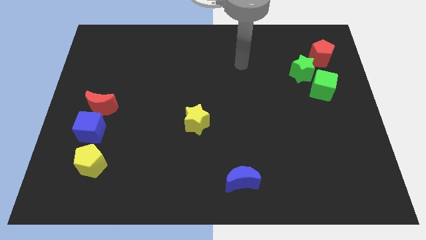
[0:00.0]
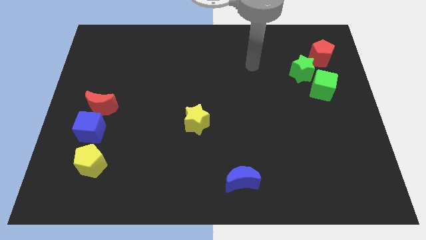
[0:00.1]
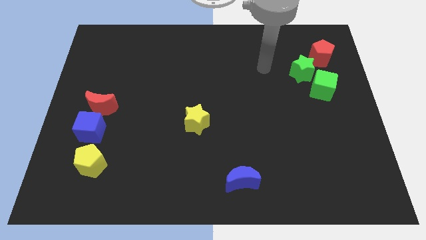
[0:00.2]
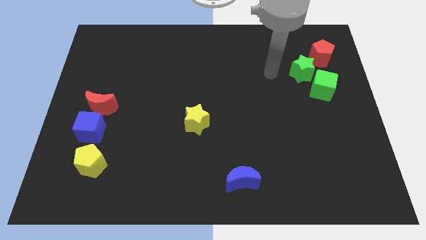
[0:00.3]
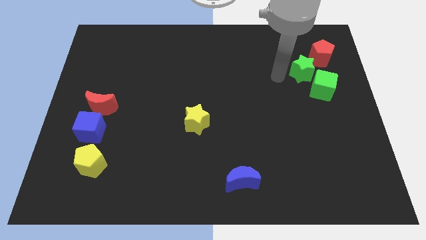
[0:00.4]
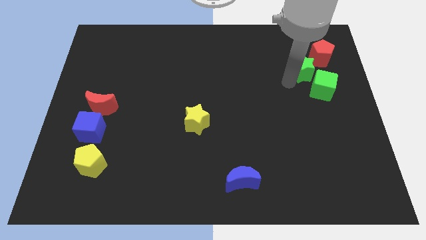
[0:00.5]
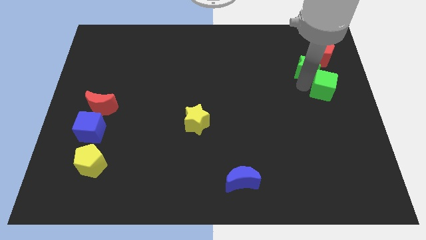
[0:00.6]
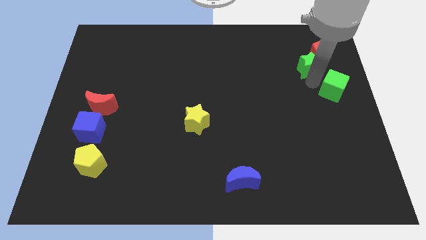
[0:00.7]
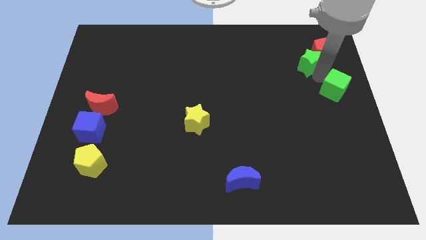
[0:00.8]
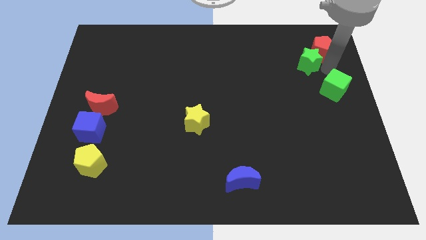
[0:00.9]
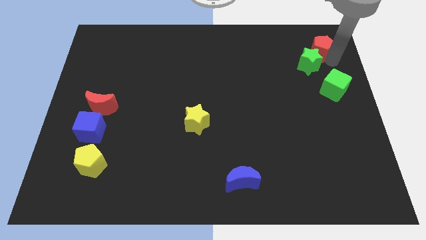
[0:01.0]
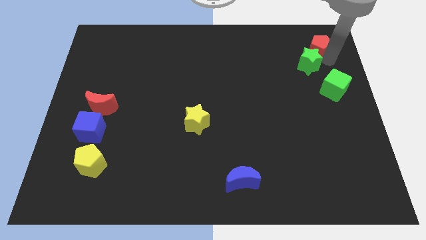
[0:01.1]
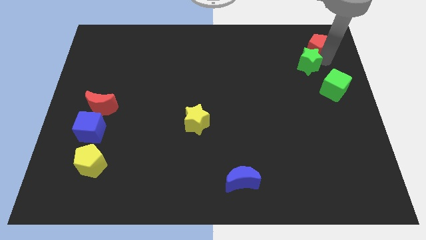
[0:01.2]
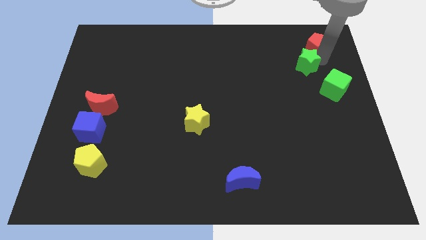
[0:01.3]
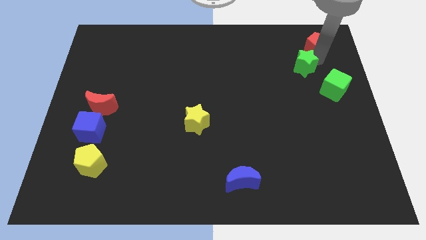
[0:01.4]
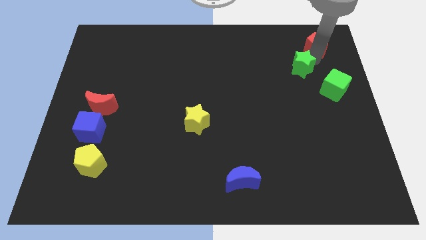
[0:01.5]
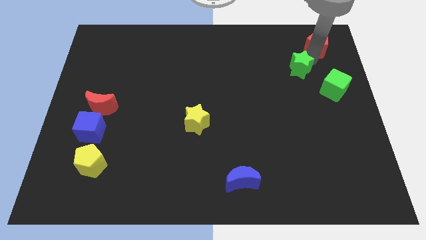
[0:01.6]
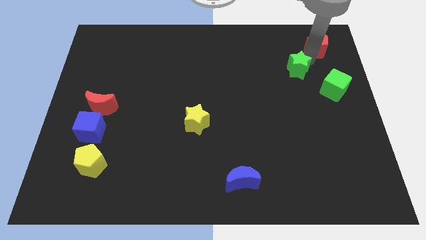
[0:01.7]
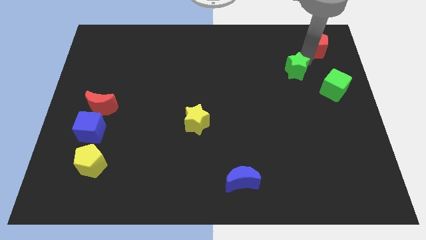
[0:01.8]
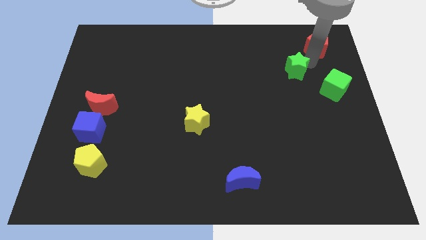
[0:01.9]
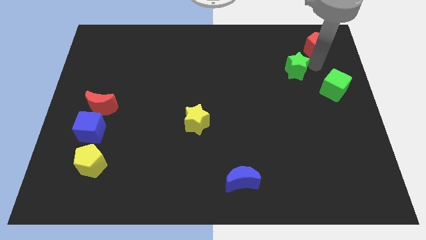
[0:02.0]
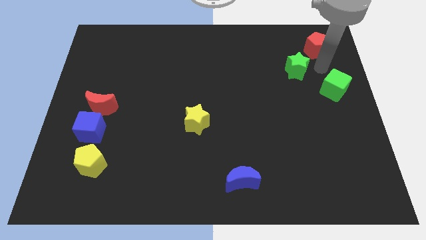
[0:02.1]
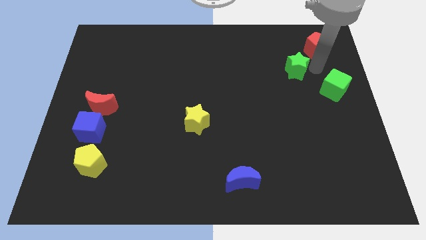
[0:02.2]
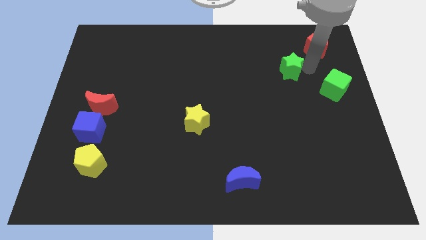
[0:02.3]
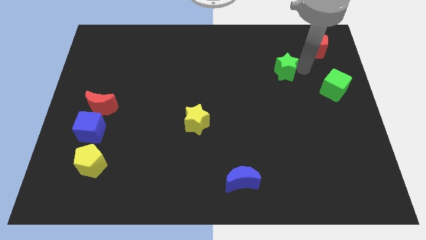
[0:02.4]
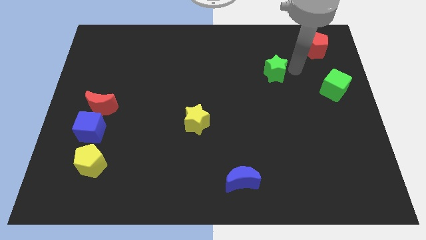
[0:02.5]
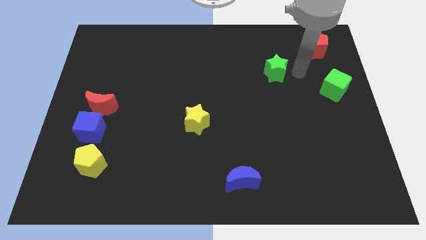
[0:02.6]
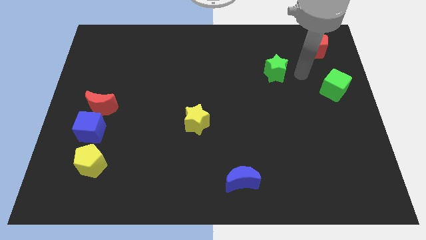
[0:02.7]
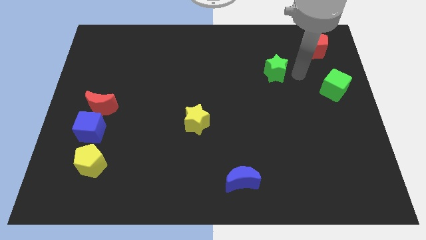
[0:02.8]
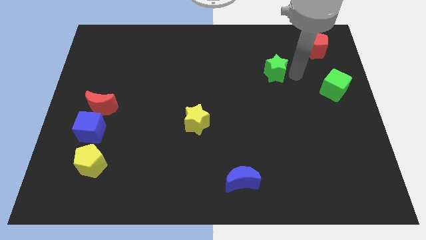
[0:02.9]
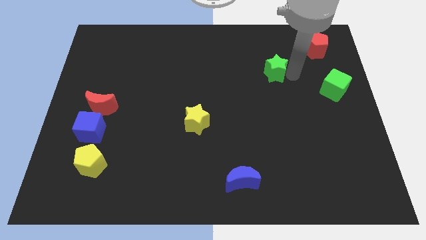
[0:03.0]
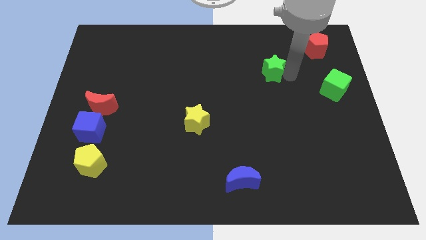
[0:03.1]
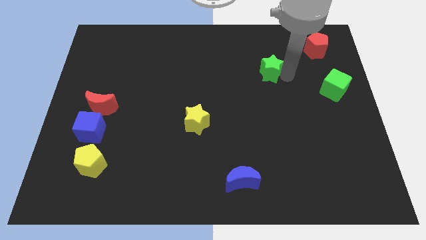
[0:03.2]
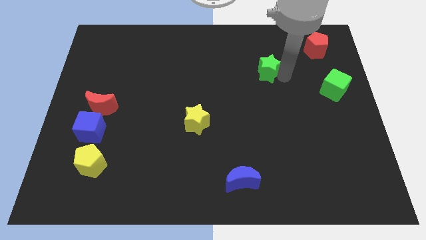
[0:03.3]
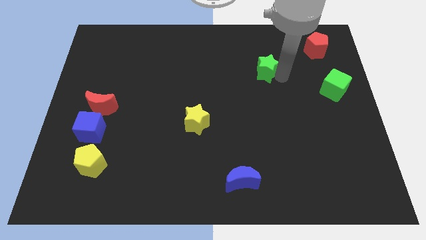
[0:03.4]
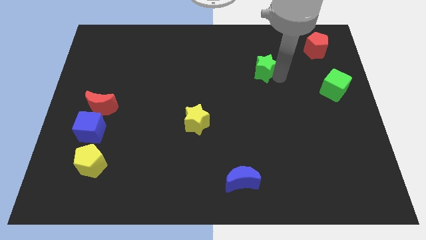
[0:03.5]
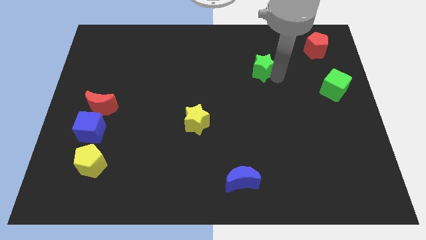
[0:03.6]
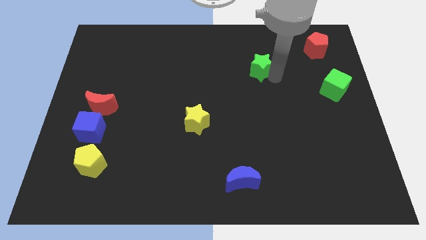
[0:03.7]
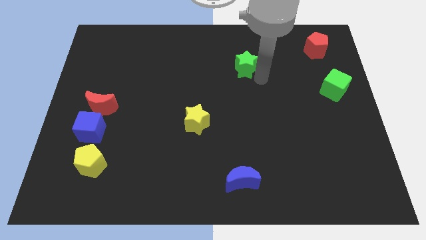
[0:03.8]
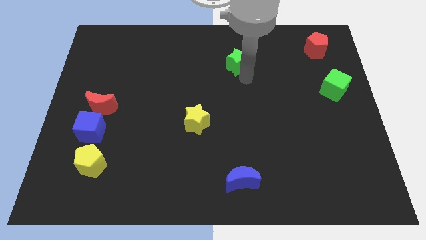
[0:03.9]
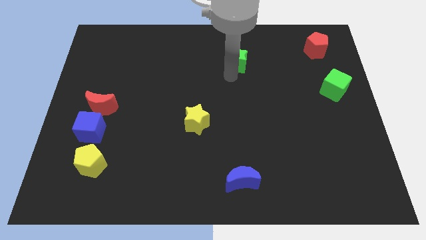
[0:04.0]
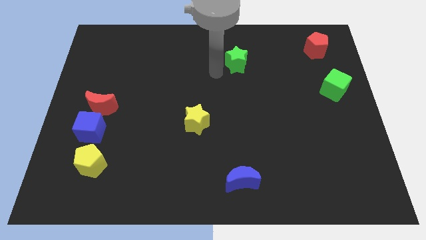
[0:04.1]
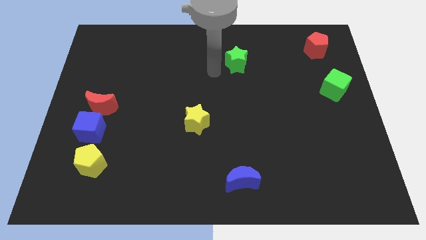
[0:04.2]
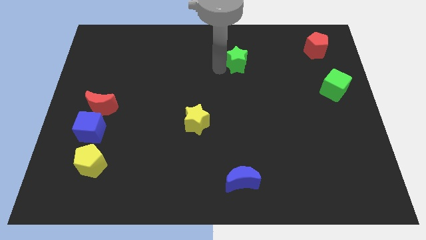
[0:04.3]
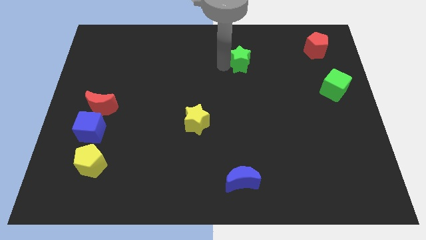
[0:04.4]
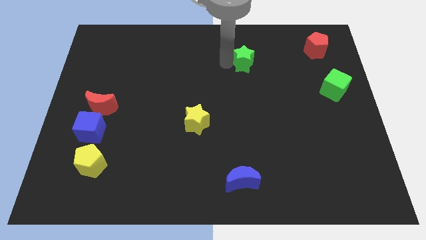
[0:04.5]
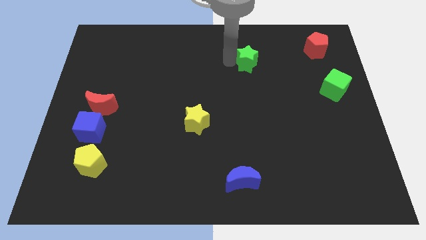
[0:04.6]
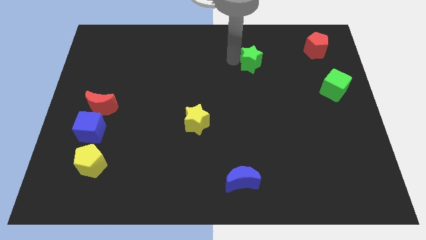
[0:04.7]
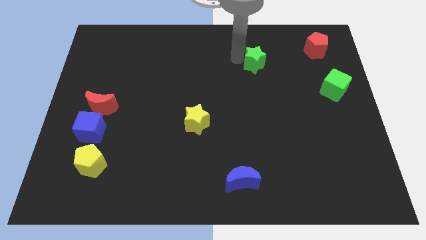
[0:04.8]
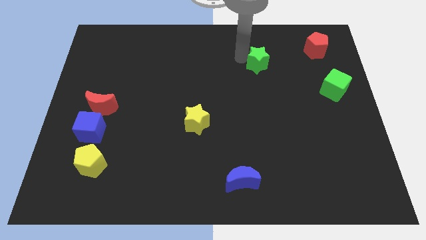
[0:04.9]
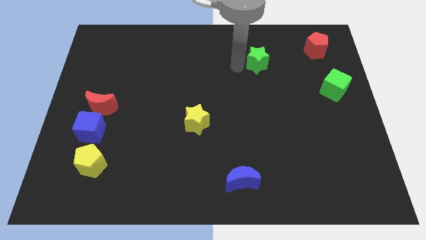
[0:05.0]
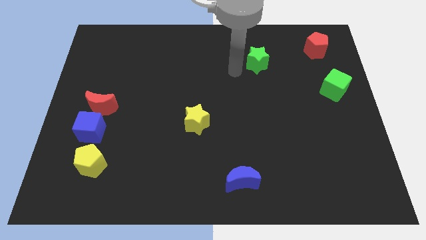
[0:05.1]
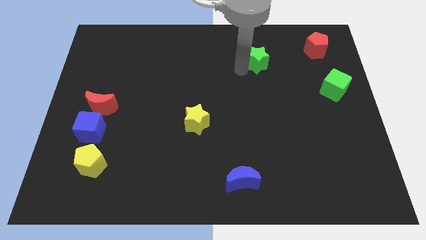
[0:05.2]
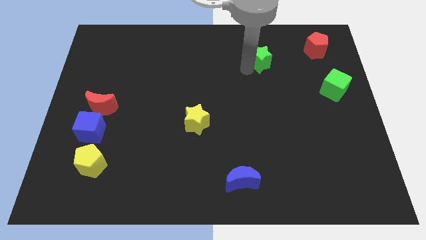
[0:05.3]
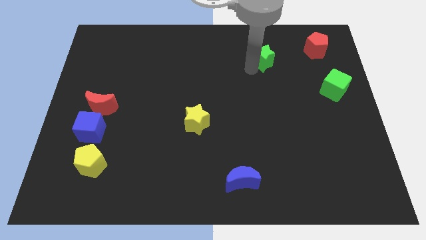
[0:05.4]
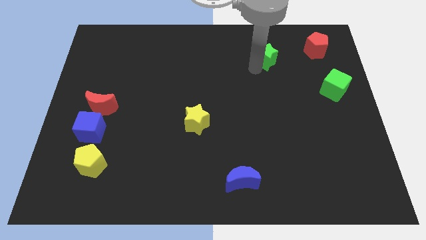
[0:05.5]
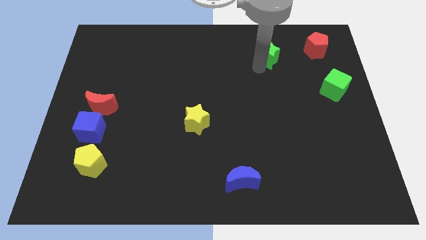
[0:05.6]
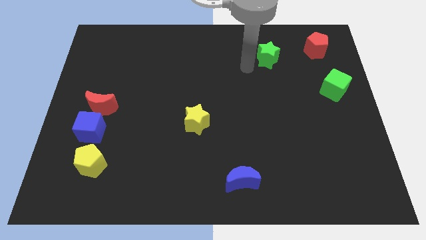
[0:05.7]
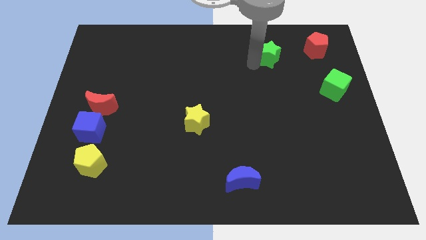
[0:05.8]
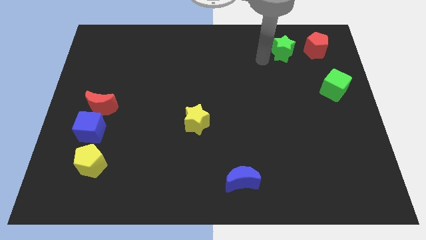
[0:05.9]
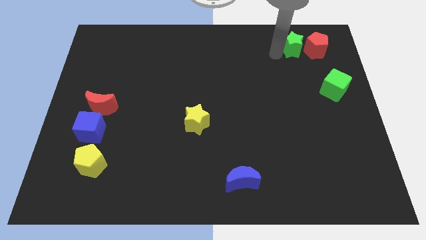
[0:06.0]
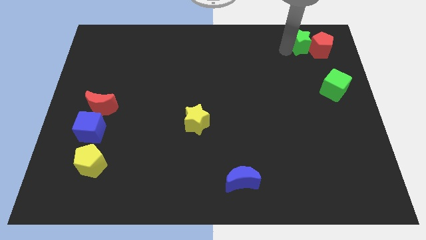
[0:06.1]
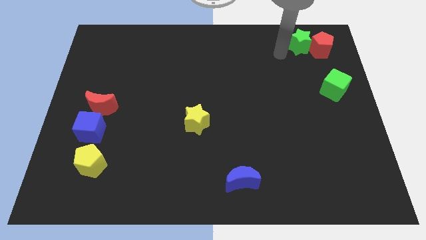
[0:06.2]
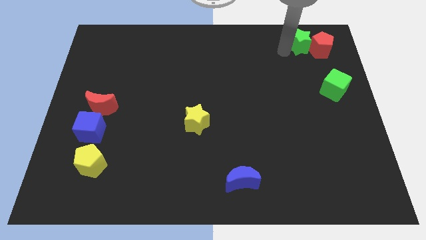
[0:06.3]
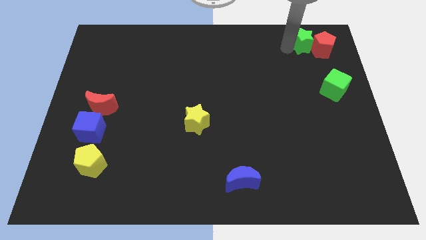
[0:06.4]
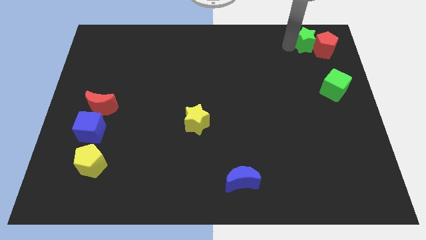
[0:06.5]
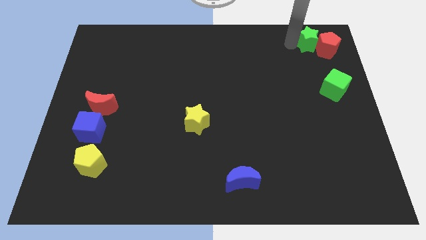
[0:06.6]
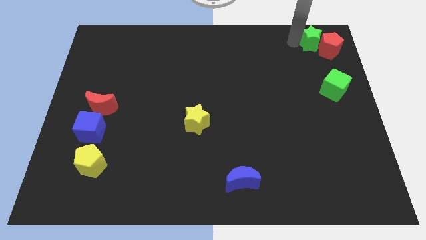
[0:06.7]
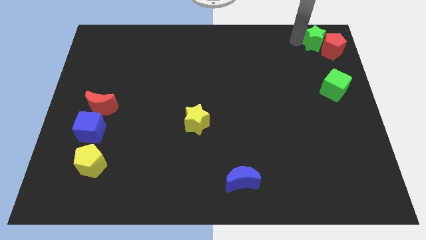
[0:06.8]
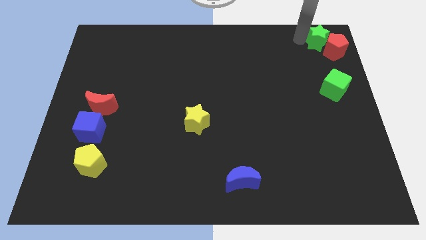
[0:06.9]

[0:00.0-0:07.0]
slide the green star to the top right of the board

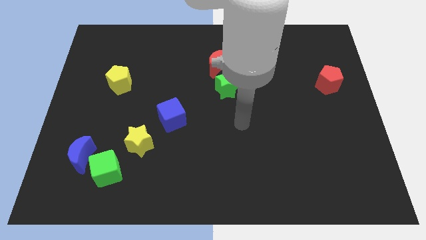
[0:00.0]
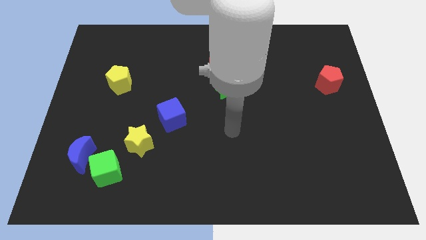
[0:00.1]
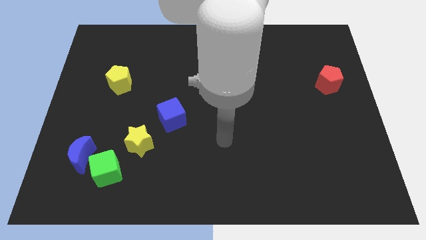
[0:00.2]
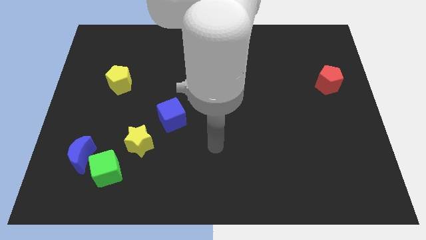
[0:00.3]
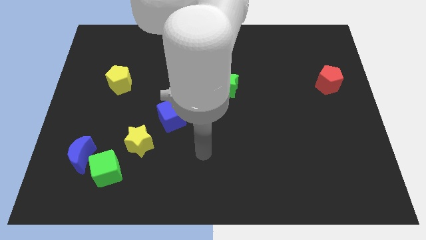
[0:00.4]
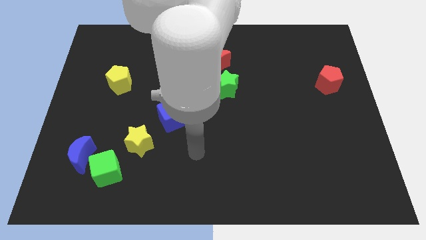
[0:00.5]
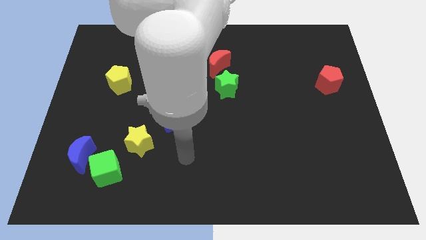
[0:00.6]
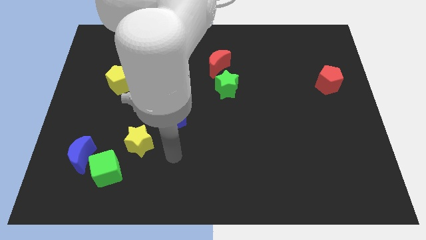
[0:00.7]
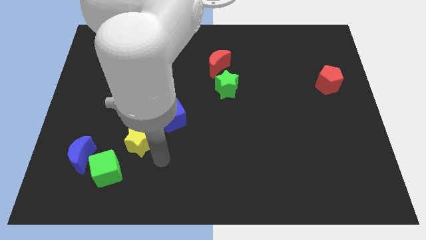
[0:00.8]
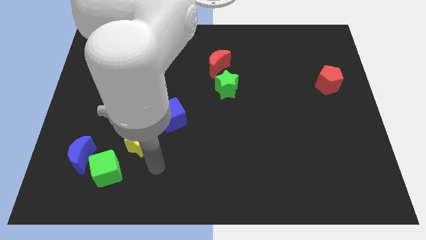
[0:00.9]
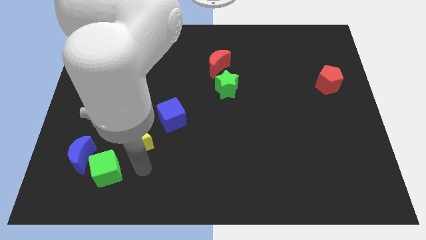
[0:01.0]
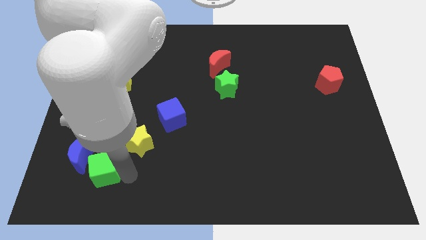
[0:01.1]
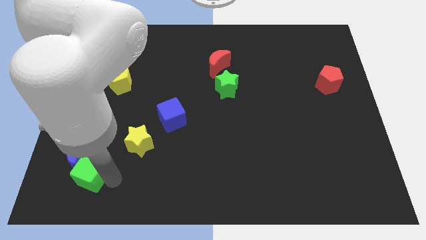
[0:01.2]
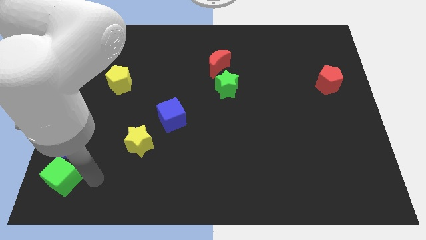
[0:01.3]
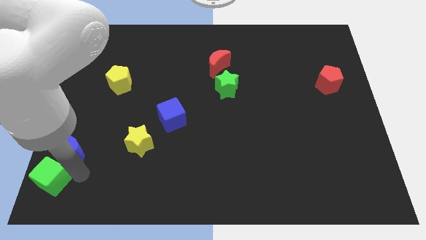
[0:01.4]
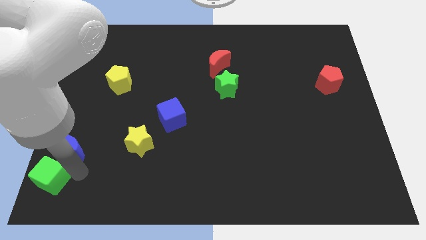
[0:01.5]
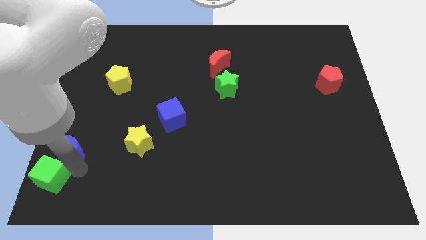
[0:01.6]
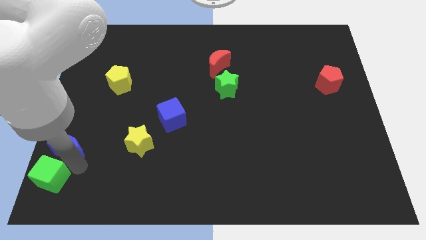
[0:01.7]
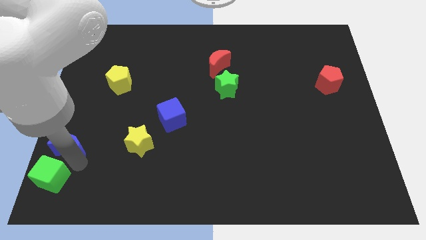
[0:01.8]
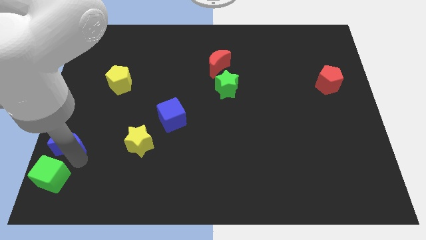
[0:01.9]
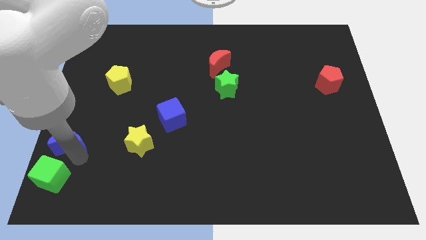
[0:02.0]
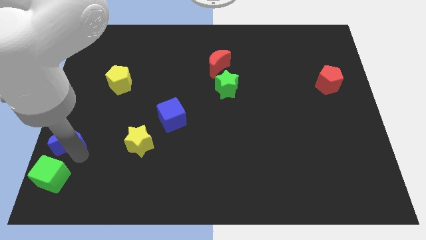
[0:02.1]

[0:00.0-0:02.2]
put the blue moon to the left side
